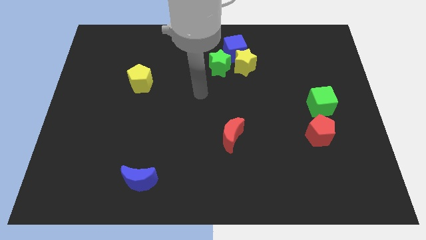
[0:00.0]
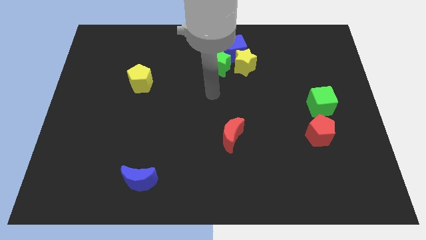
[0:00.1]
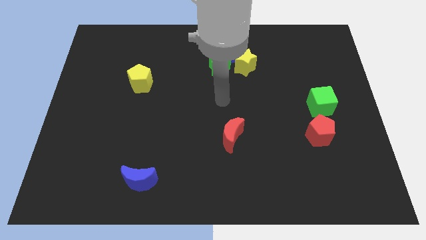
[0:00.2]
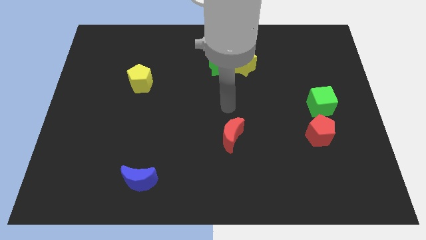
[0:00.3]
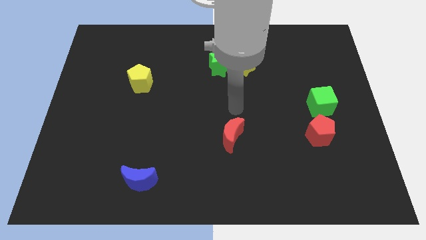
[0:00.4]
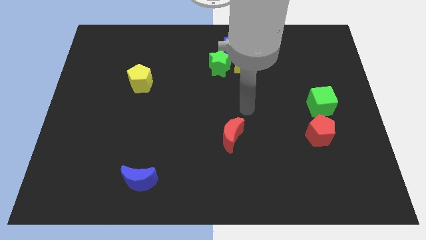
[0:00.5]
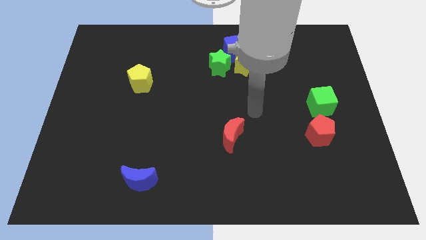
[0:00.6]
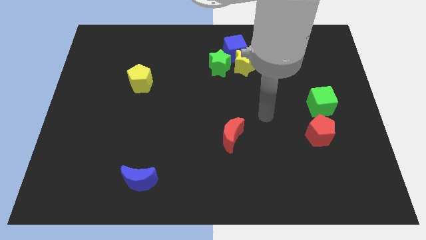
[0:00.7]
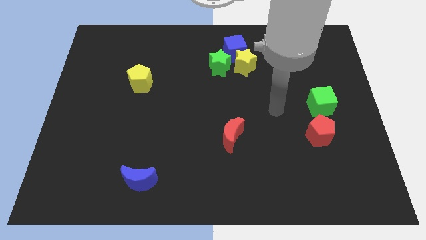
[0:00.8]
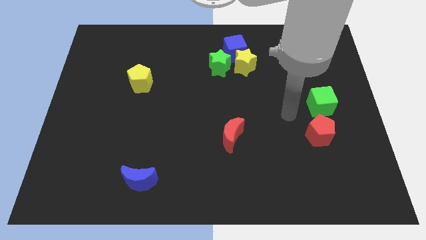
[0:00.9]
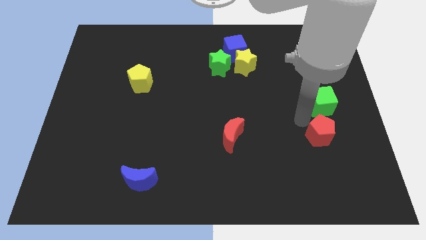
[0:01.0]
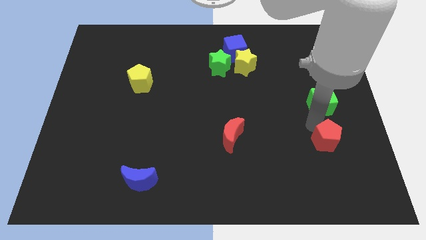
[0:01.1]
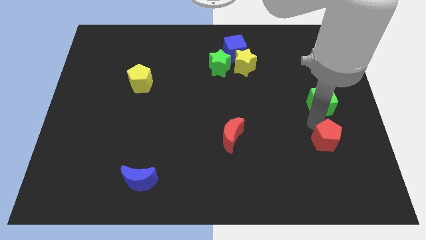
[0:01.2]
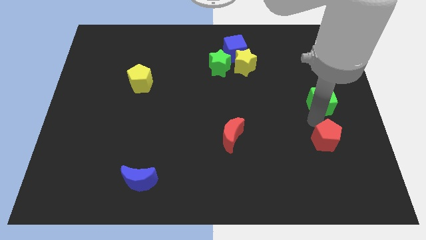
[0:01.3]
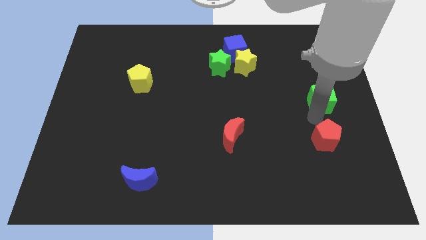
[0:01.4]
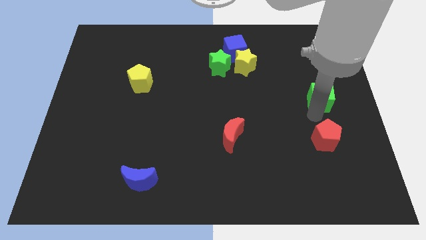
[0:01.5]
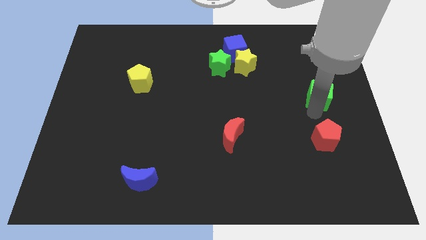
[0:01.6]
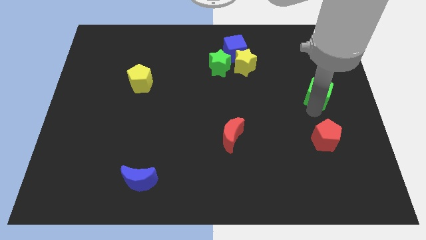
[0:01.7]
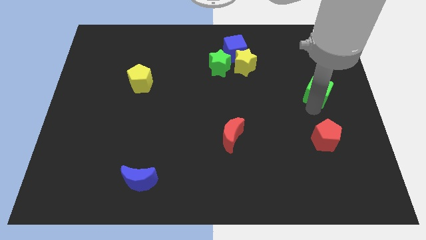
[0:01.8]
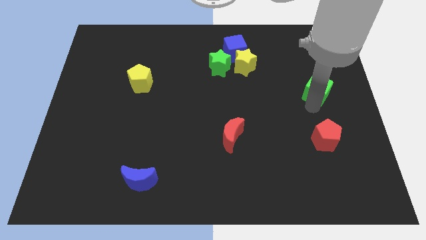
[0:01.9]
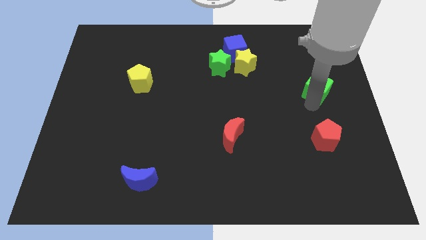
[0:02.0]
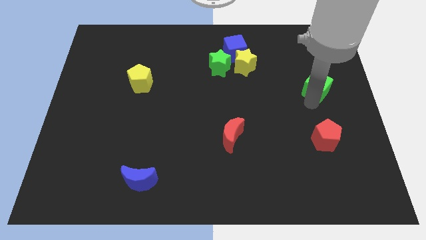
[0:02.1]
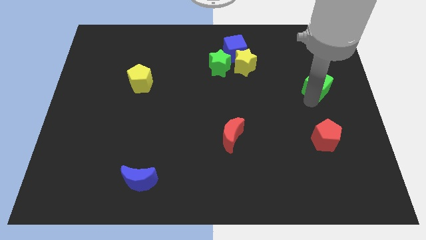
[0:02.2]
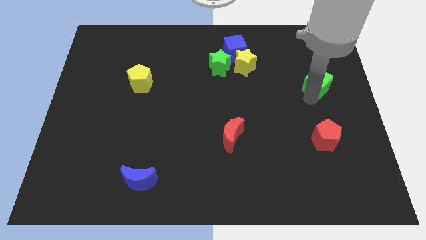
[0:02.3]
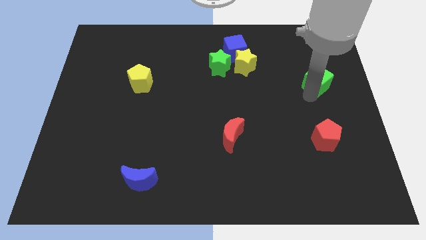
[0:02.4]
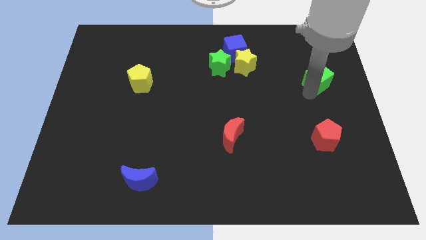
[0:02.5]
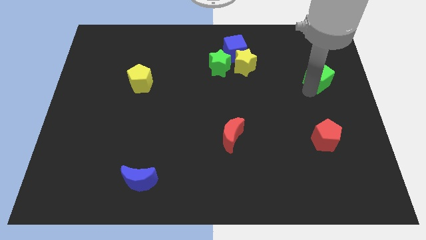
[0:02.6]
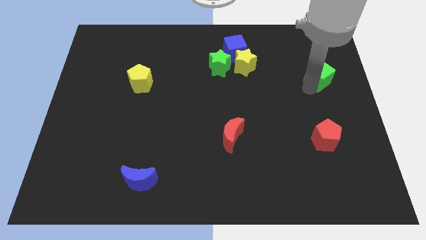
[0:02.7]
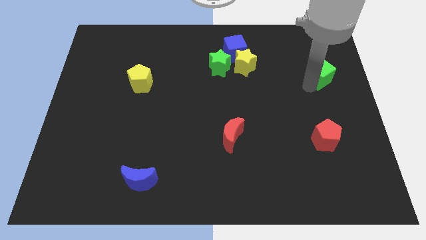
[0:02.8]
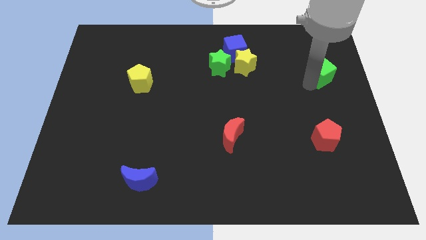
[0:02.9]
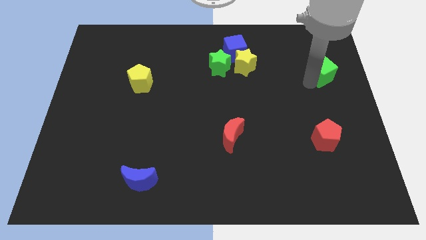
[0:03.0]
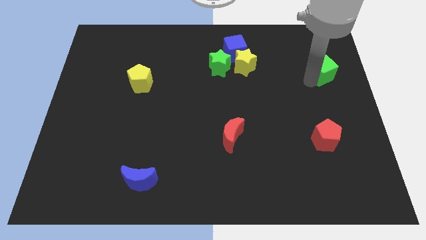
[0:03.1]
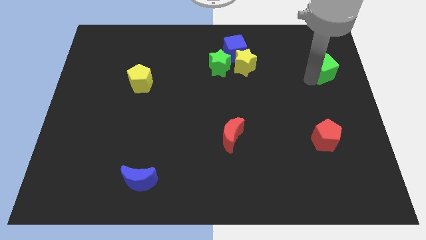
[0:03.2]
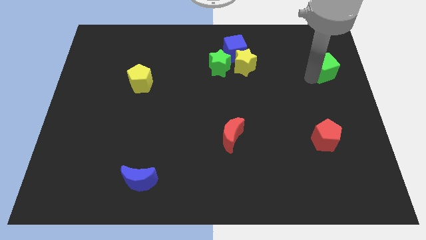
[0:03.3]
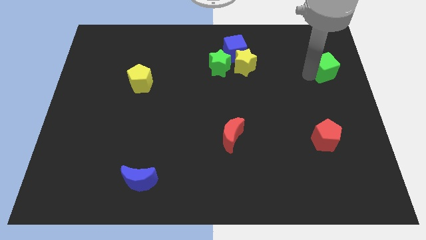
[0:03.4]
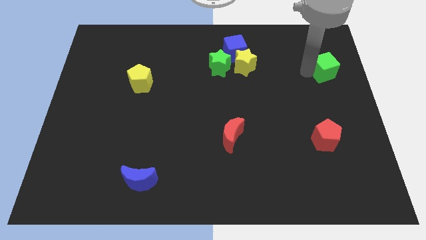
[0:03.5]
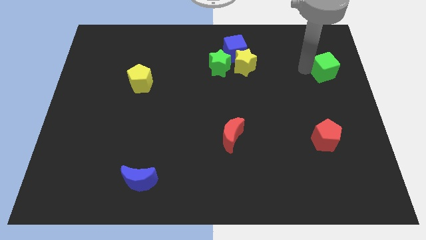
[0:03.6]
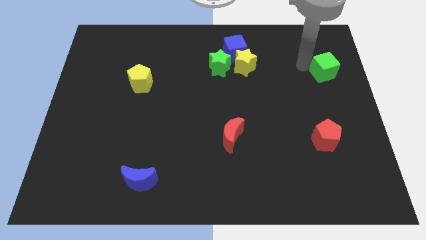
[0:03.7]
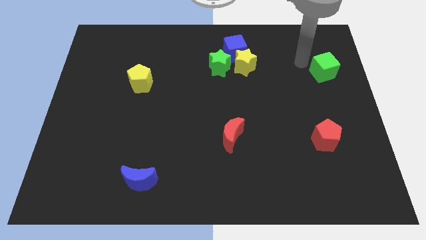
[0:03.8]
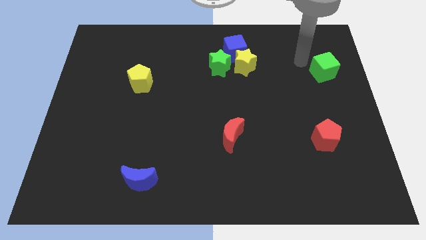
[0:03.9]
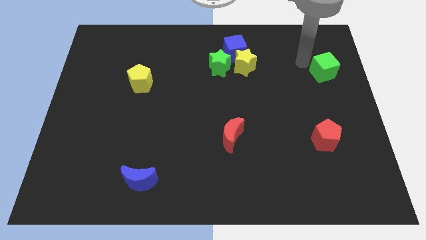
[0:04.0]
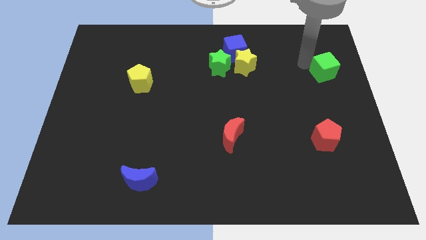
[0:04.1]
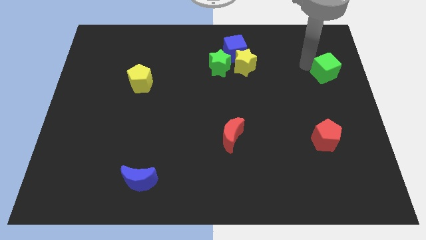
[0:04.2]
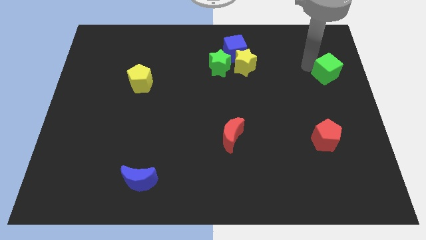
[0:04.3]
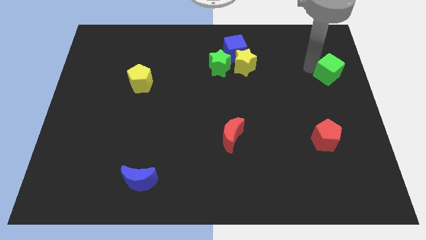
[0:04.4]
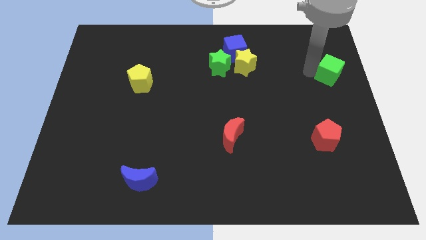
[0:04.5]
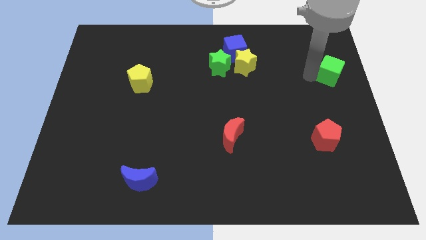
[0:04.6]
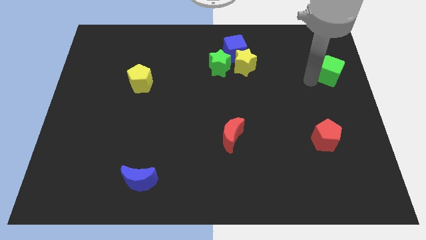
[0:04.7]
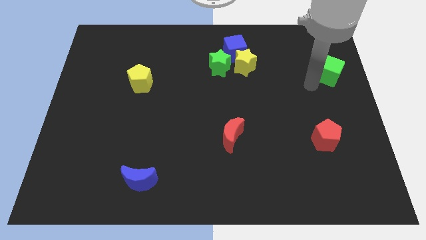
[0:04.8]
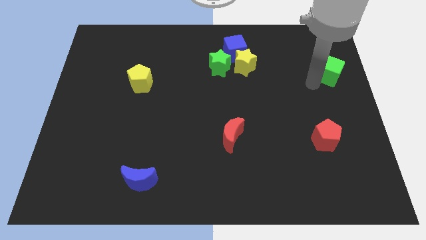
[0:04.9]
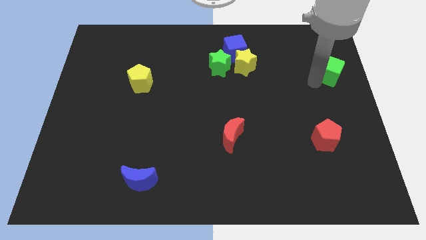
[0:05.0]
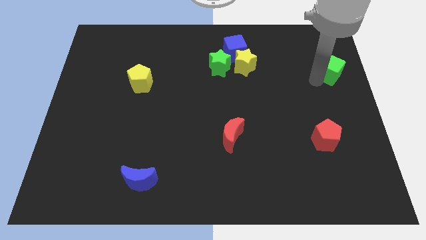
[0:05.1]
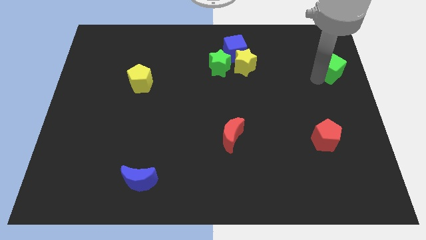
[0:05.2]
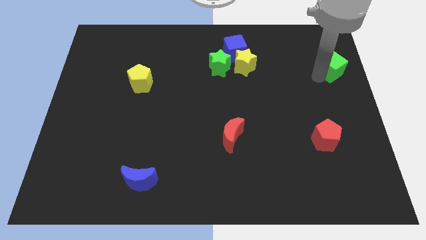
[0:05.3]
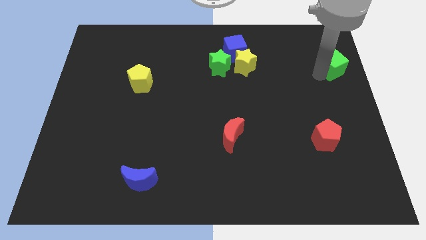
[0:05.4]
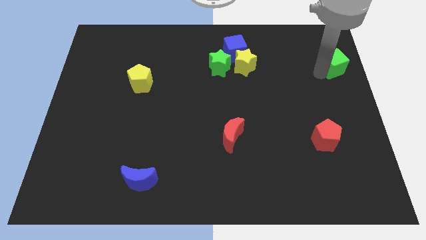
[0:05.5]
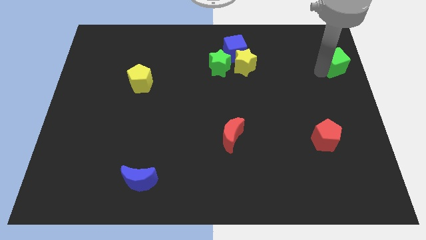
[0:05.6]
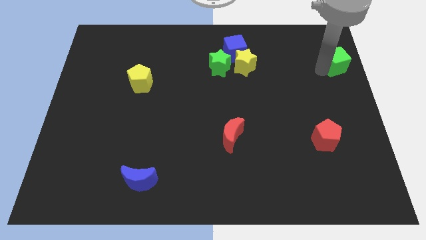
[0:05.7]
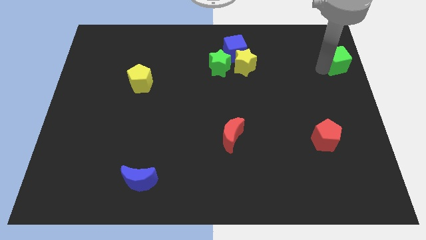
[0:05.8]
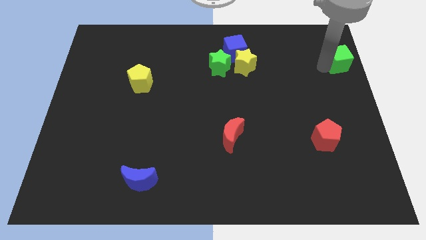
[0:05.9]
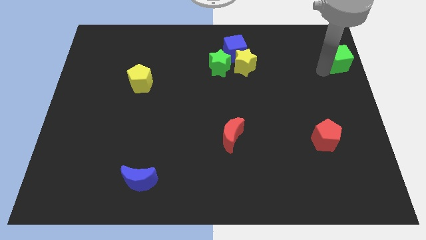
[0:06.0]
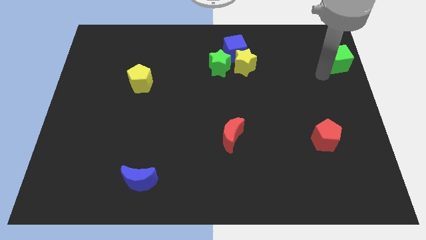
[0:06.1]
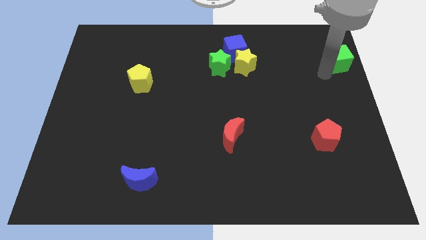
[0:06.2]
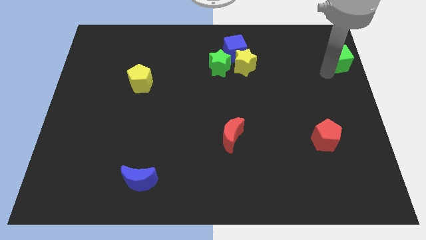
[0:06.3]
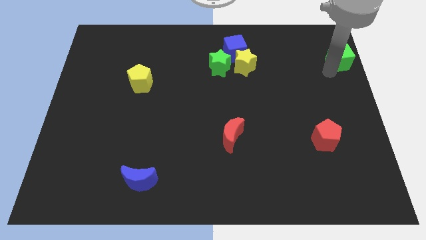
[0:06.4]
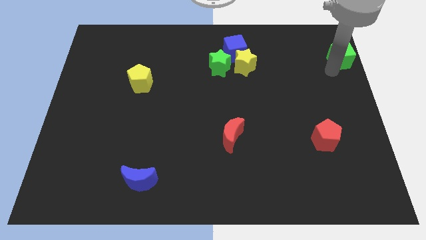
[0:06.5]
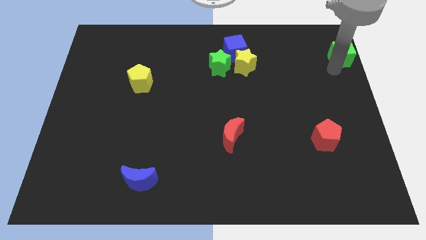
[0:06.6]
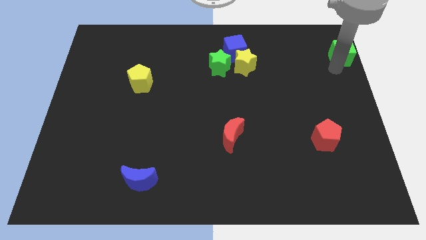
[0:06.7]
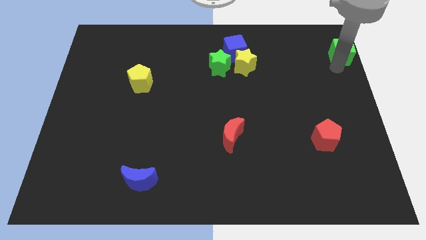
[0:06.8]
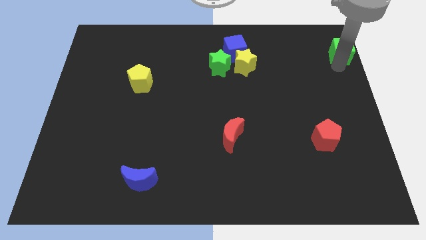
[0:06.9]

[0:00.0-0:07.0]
put the green cube to the top right corner
